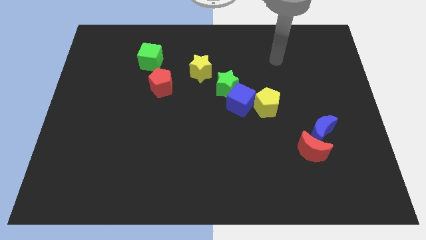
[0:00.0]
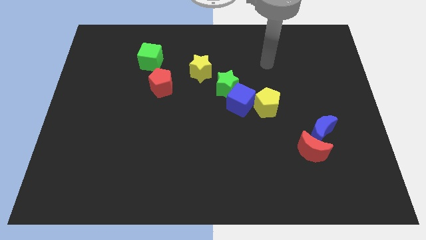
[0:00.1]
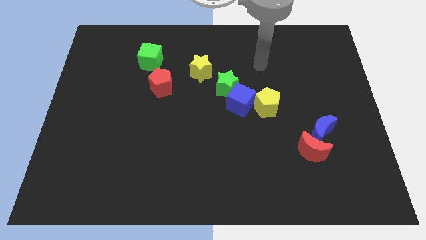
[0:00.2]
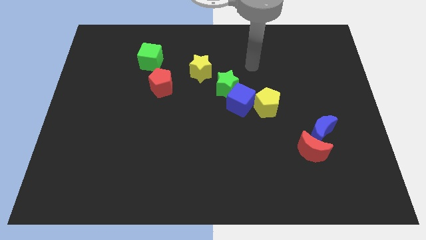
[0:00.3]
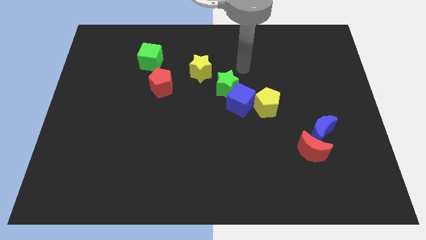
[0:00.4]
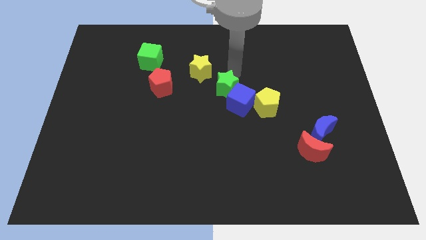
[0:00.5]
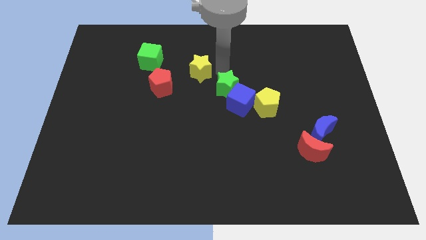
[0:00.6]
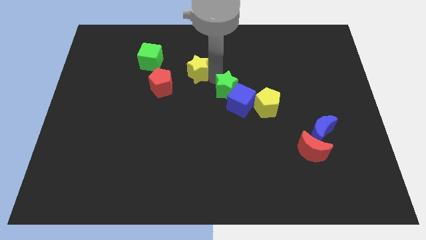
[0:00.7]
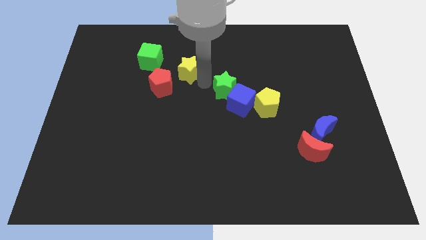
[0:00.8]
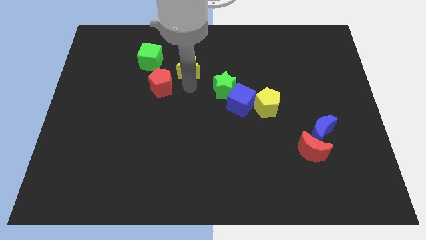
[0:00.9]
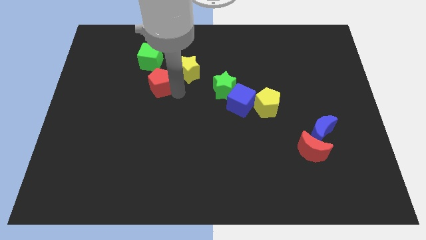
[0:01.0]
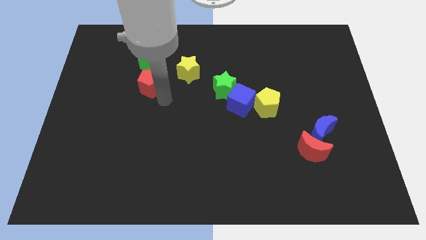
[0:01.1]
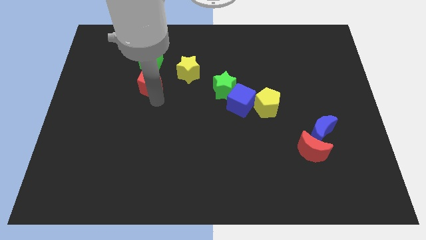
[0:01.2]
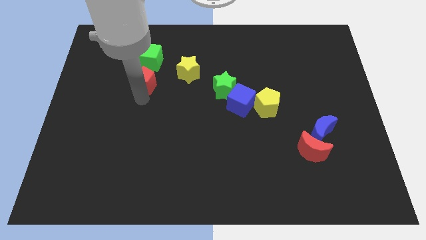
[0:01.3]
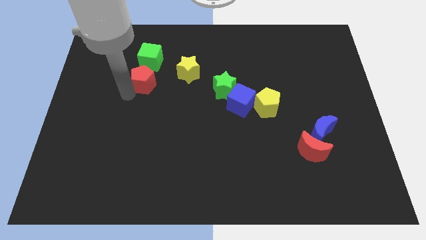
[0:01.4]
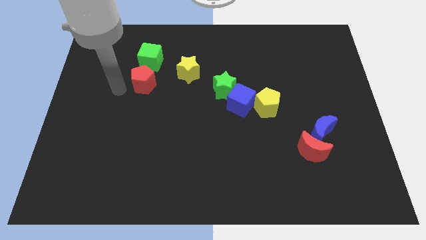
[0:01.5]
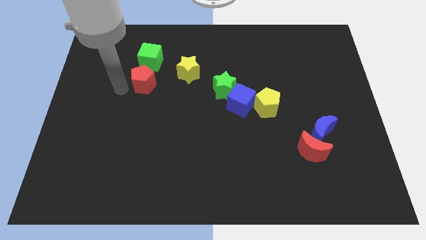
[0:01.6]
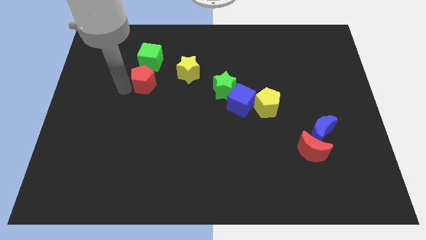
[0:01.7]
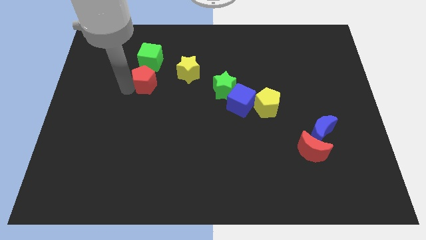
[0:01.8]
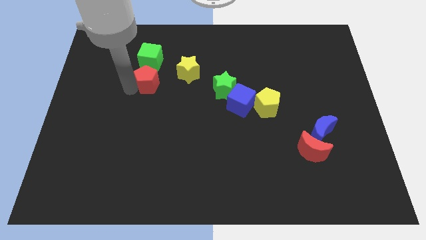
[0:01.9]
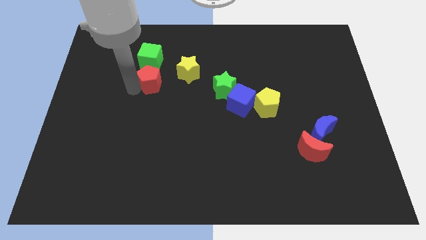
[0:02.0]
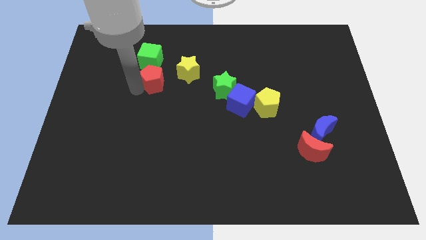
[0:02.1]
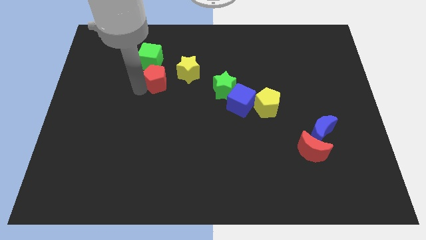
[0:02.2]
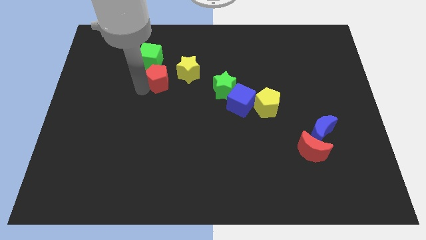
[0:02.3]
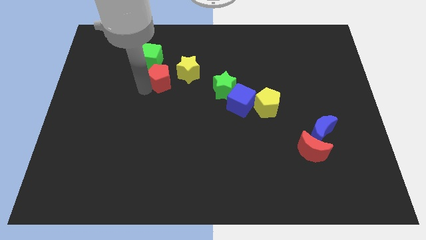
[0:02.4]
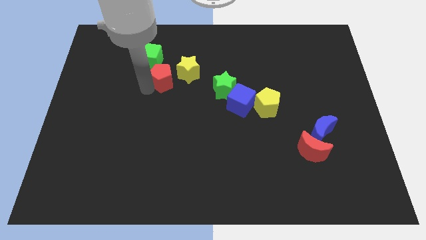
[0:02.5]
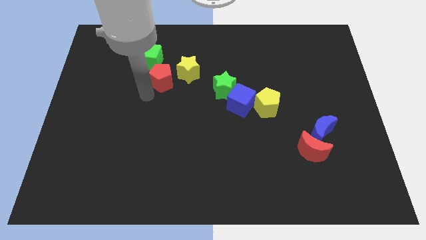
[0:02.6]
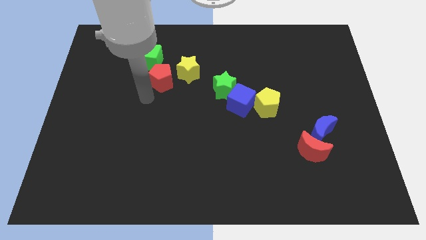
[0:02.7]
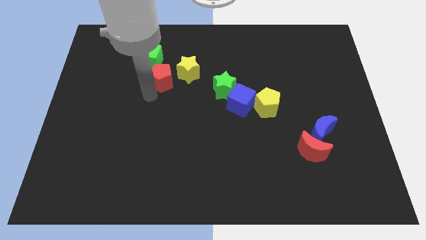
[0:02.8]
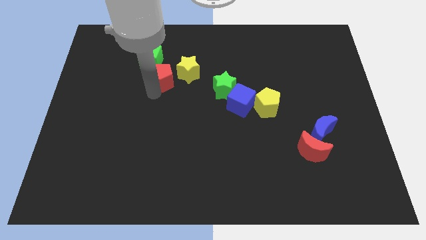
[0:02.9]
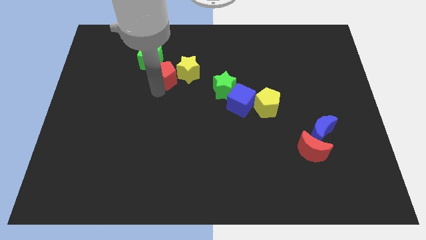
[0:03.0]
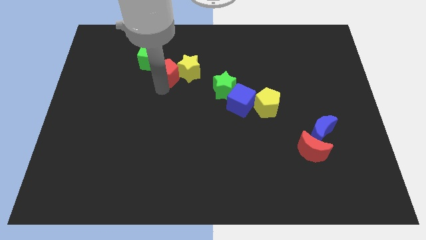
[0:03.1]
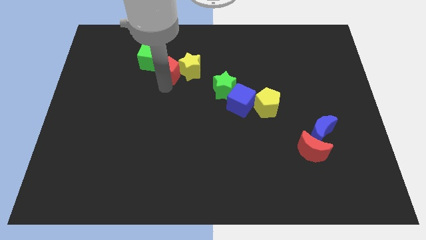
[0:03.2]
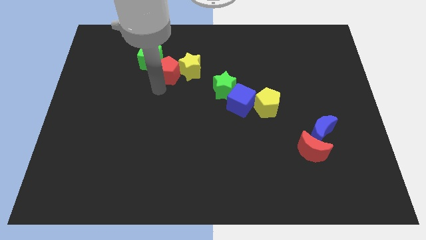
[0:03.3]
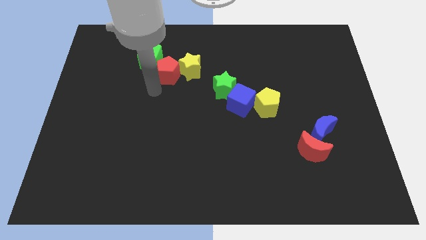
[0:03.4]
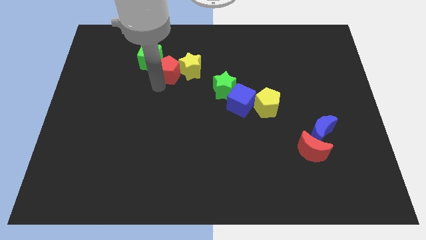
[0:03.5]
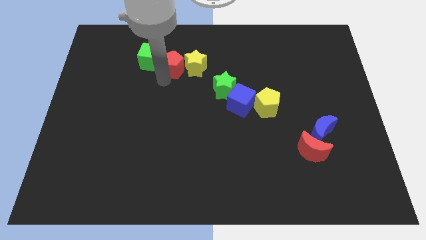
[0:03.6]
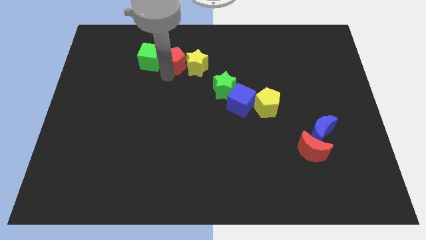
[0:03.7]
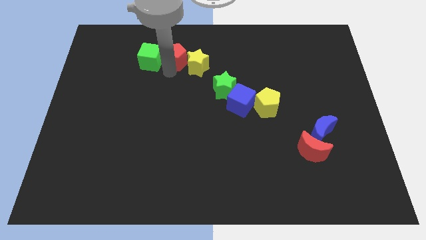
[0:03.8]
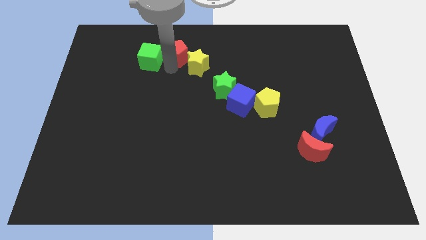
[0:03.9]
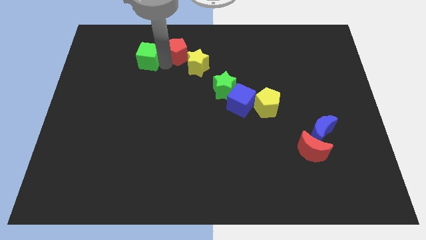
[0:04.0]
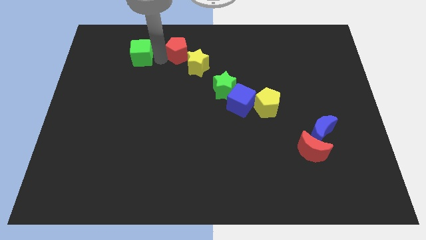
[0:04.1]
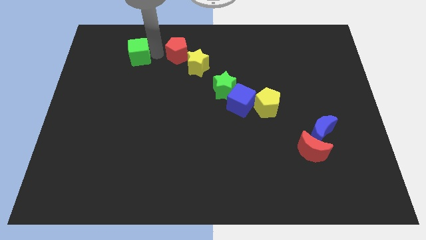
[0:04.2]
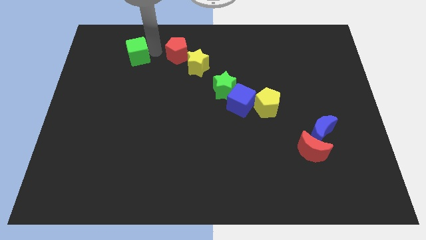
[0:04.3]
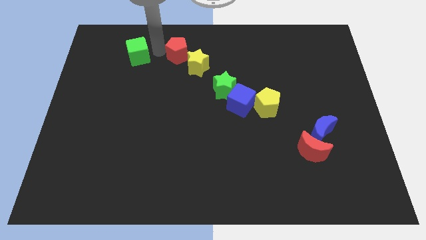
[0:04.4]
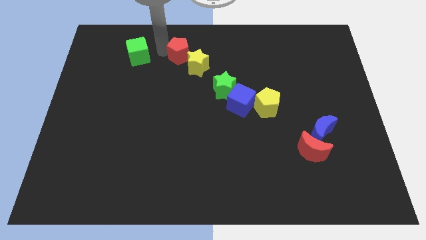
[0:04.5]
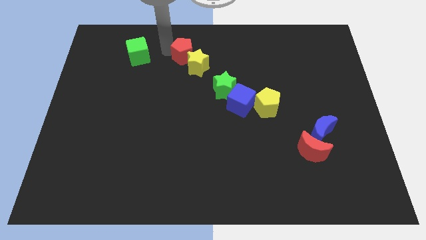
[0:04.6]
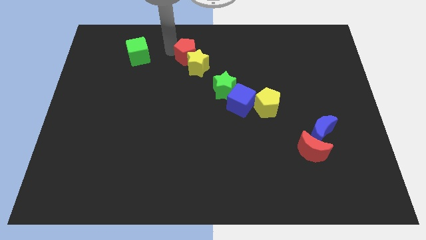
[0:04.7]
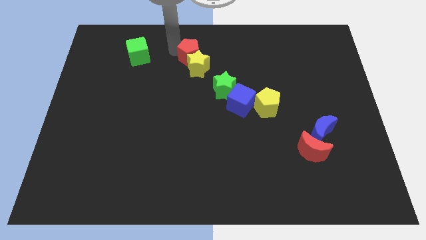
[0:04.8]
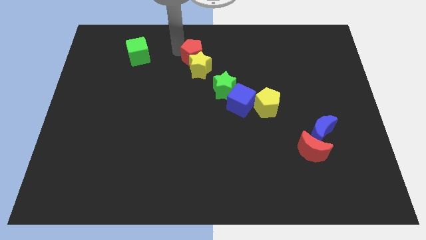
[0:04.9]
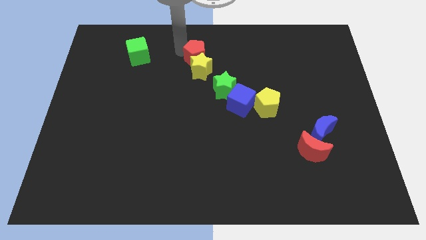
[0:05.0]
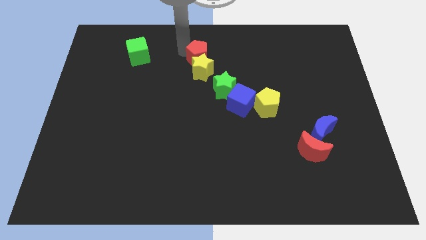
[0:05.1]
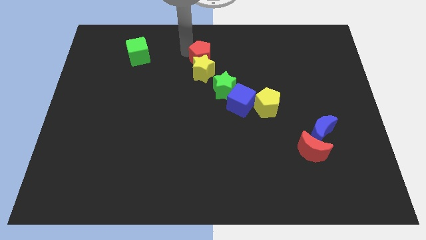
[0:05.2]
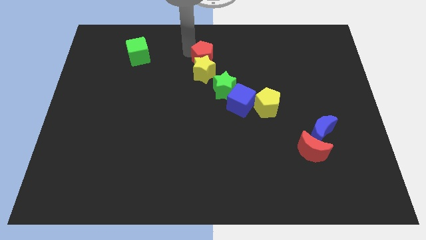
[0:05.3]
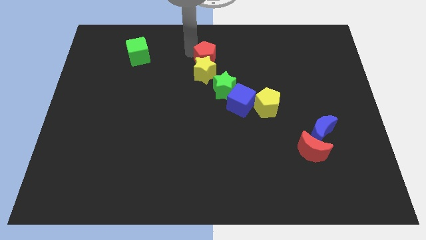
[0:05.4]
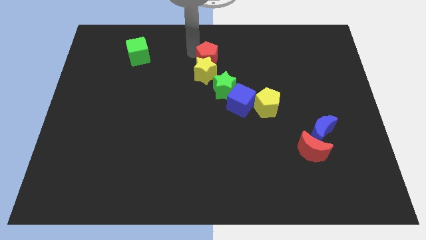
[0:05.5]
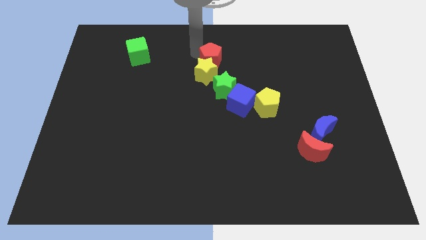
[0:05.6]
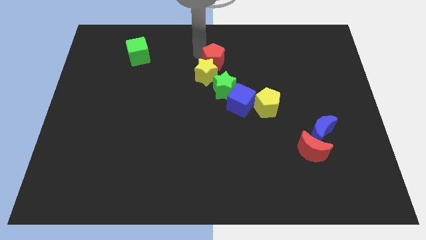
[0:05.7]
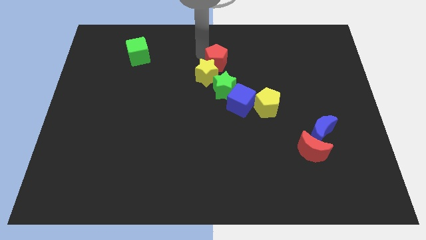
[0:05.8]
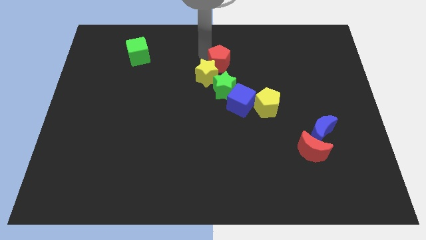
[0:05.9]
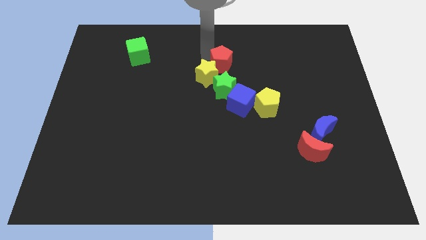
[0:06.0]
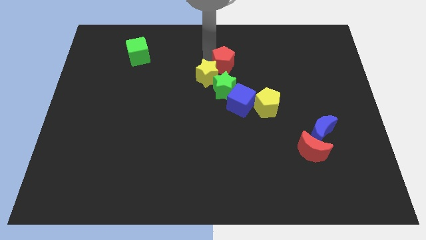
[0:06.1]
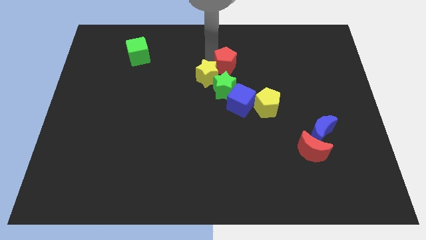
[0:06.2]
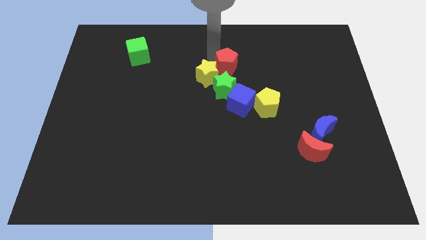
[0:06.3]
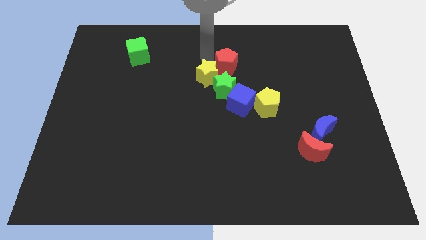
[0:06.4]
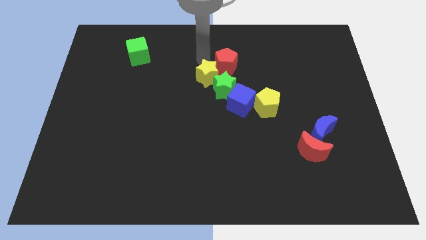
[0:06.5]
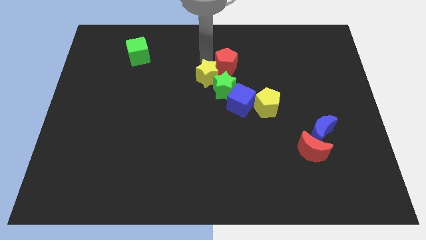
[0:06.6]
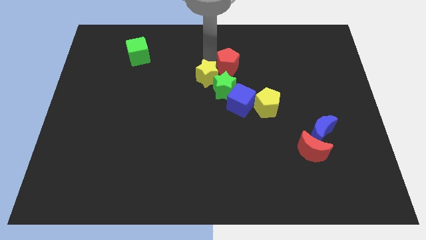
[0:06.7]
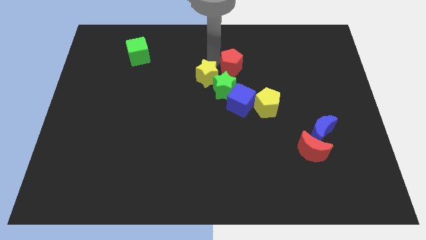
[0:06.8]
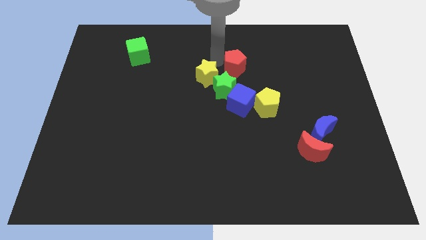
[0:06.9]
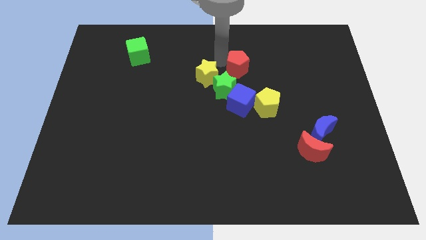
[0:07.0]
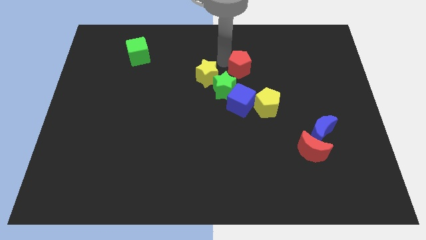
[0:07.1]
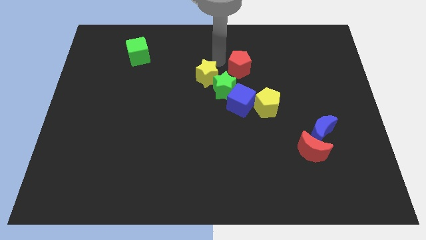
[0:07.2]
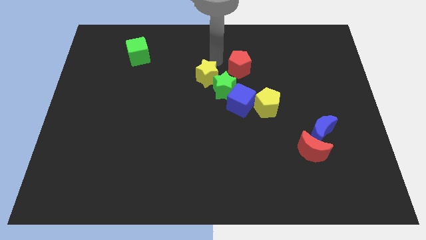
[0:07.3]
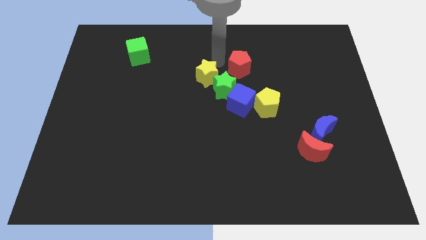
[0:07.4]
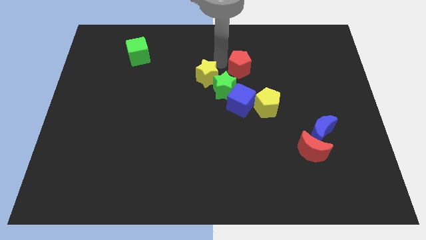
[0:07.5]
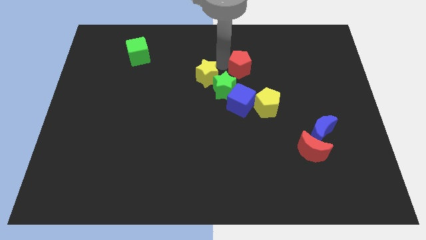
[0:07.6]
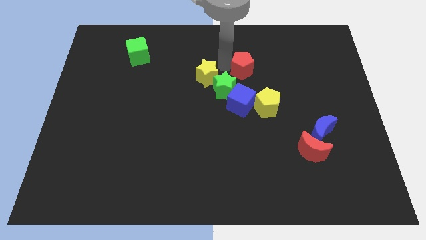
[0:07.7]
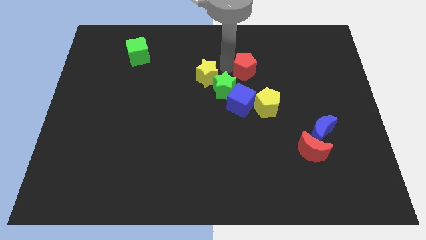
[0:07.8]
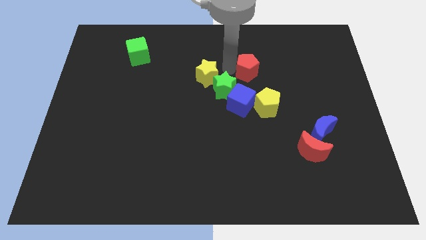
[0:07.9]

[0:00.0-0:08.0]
move the red pentagon right
